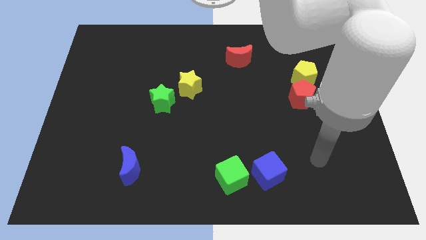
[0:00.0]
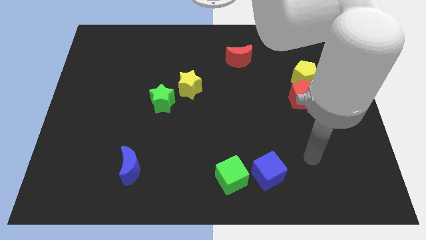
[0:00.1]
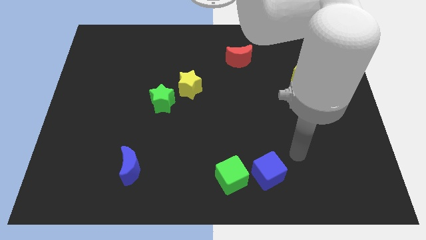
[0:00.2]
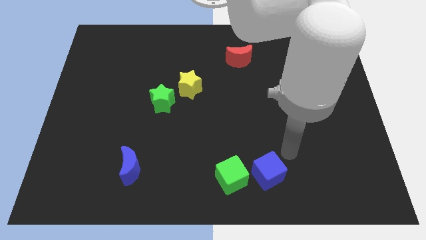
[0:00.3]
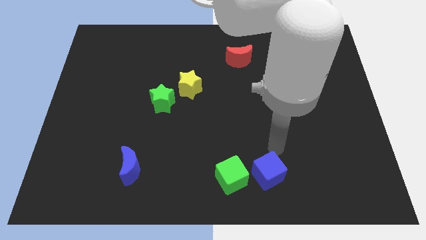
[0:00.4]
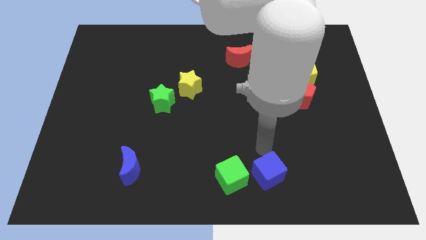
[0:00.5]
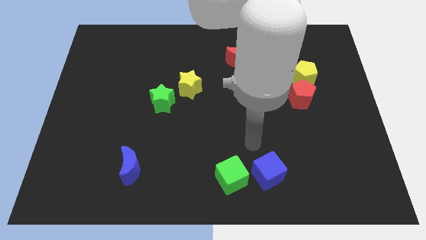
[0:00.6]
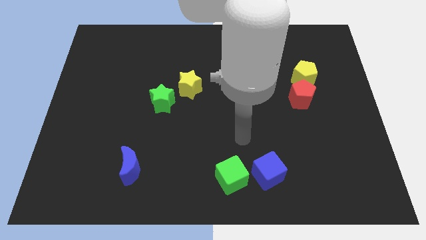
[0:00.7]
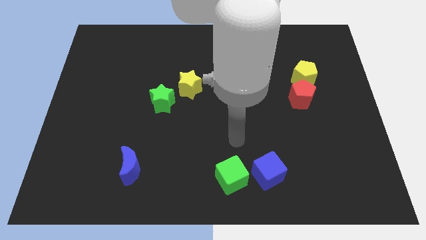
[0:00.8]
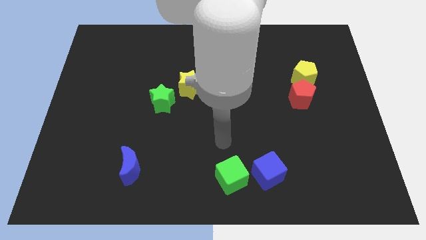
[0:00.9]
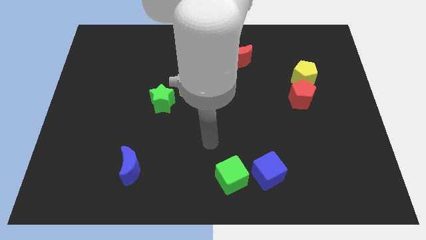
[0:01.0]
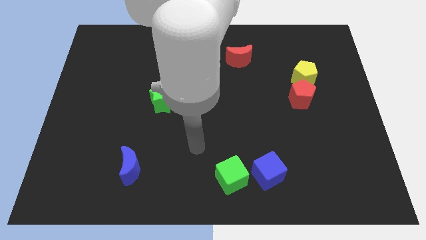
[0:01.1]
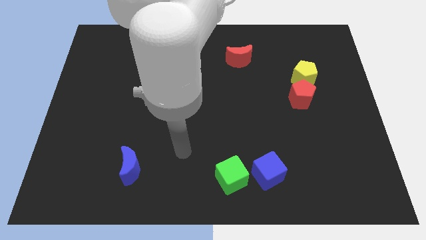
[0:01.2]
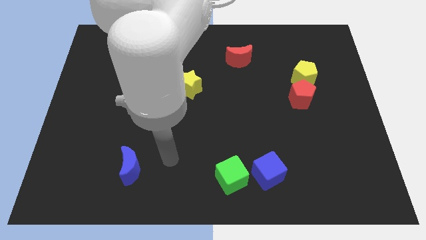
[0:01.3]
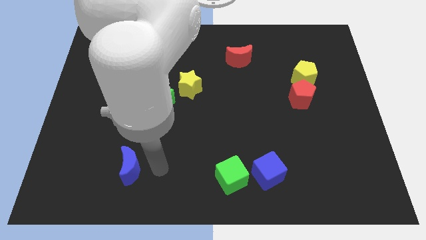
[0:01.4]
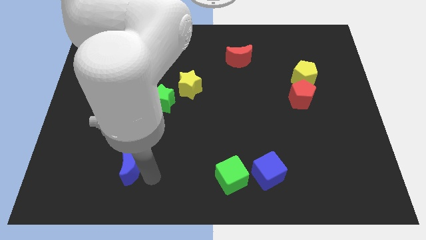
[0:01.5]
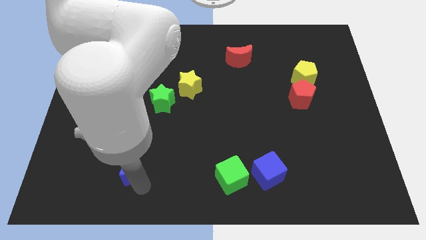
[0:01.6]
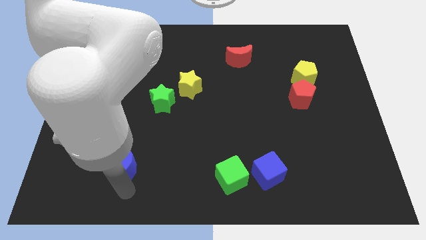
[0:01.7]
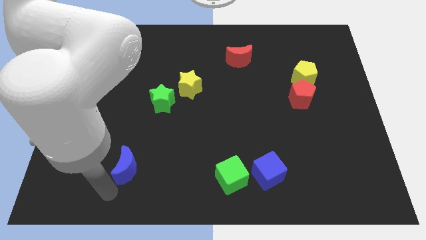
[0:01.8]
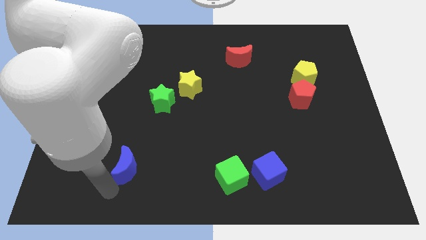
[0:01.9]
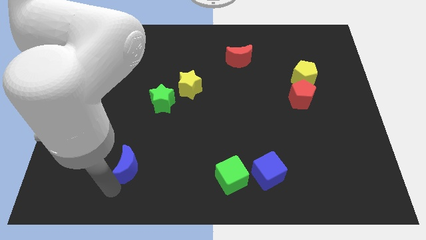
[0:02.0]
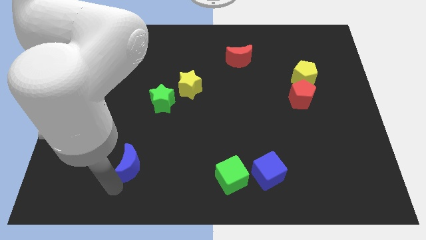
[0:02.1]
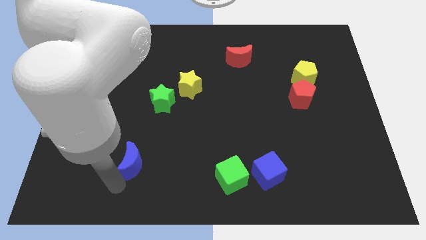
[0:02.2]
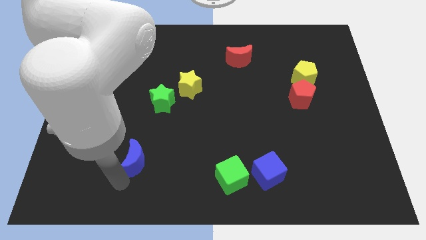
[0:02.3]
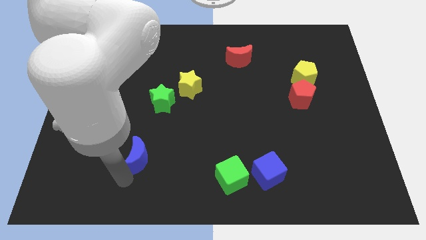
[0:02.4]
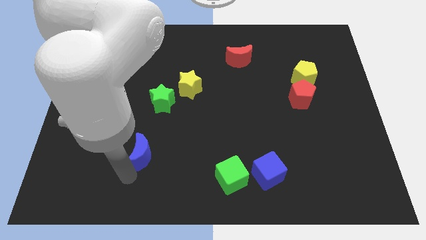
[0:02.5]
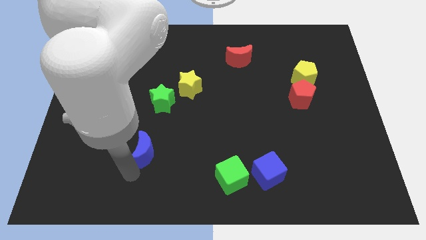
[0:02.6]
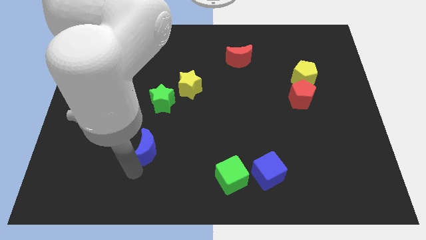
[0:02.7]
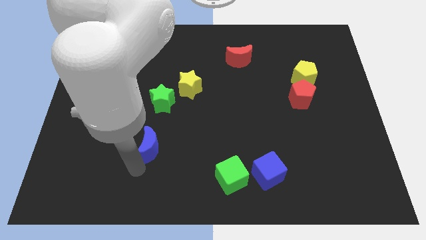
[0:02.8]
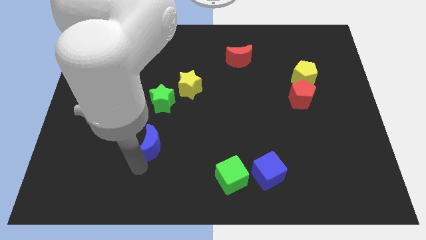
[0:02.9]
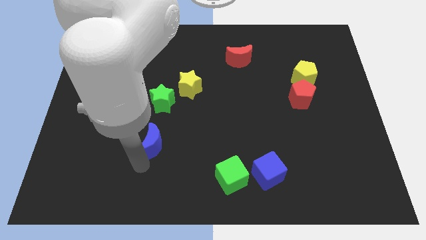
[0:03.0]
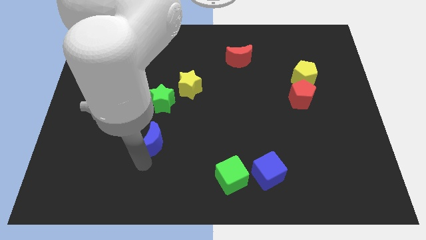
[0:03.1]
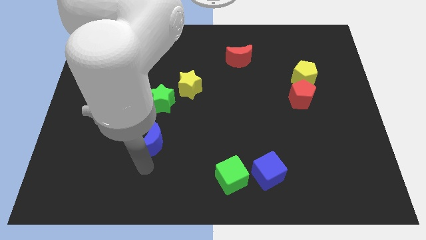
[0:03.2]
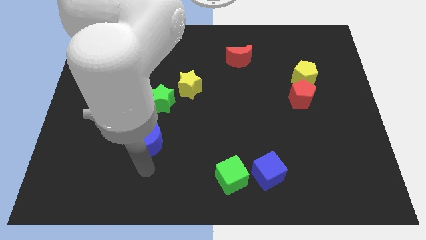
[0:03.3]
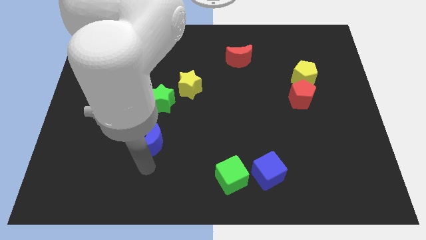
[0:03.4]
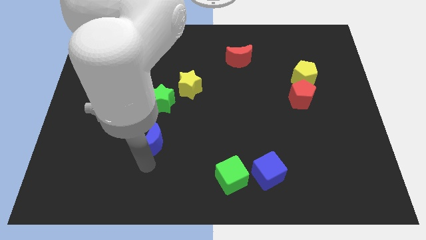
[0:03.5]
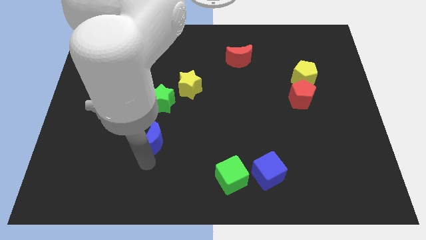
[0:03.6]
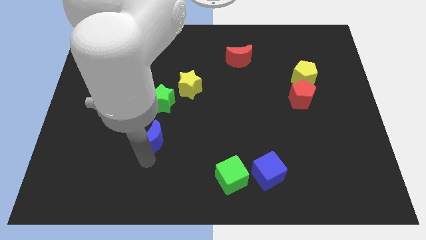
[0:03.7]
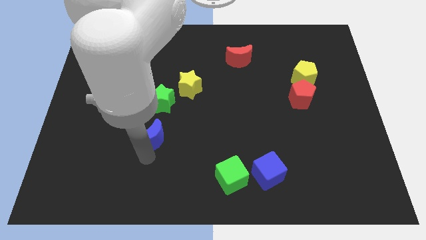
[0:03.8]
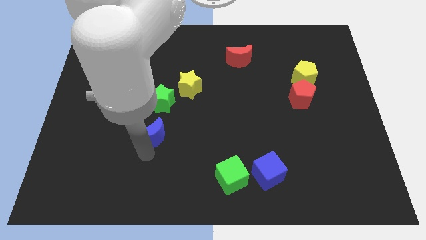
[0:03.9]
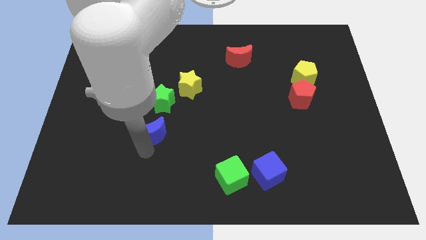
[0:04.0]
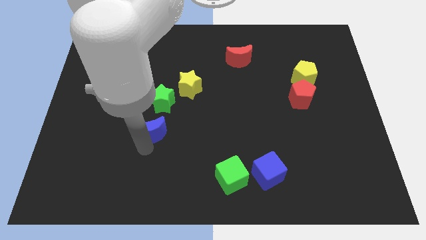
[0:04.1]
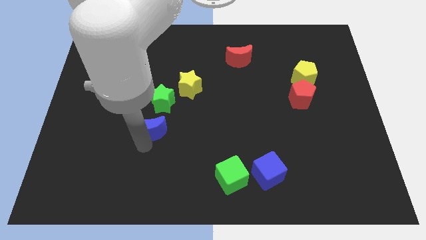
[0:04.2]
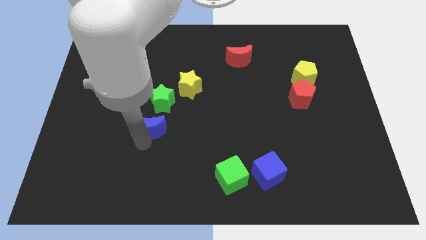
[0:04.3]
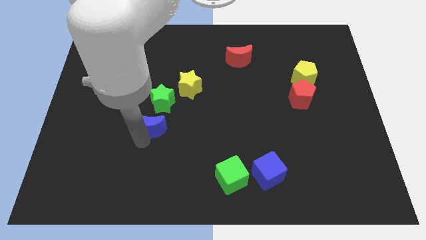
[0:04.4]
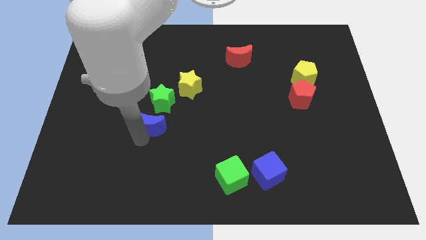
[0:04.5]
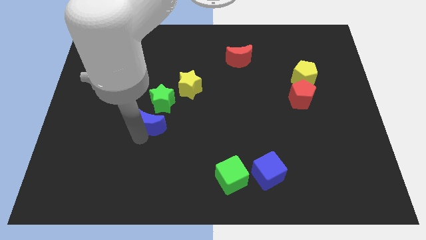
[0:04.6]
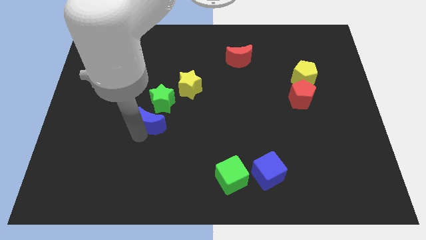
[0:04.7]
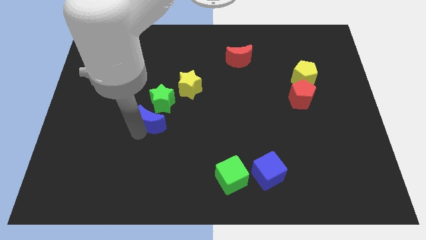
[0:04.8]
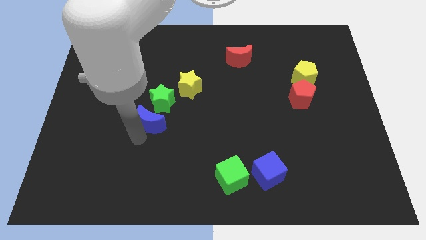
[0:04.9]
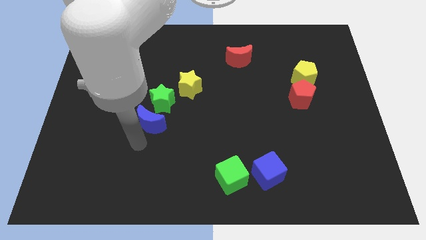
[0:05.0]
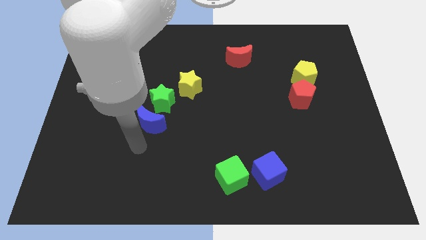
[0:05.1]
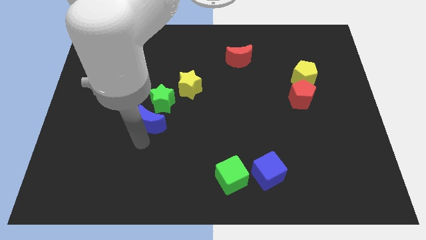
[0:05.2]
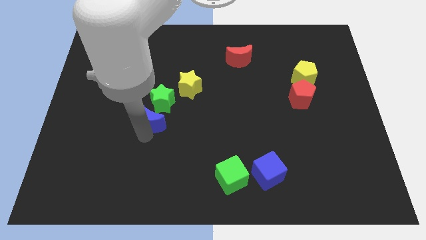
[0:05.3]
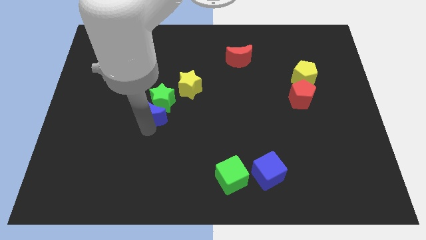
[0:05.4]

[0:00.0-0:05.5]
move the blue moon next to the green star

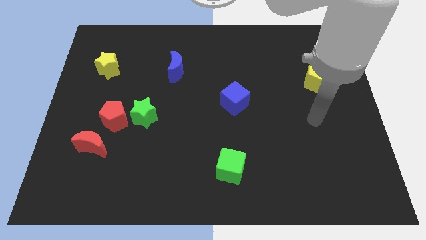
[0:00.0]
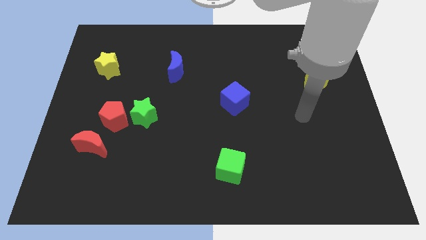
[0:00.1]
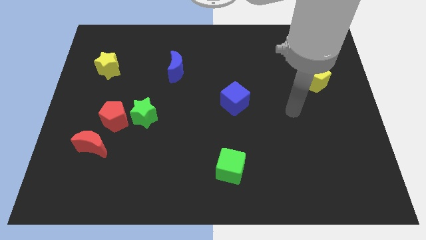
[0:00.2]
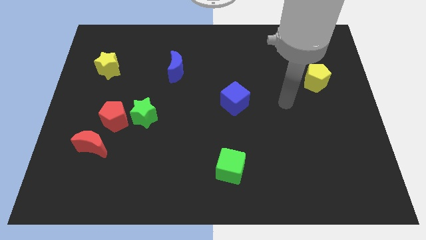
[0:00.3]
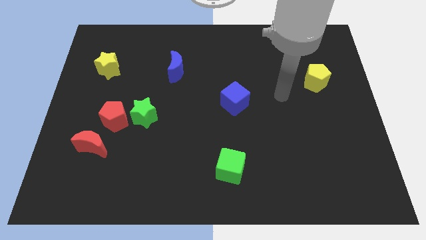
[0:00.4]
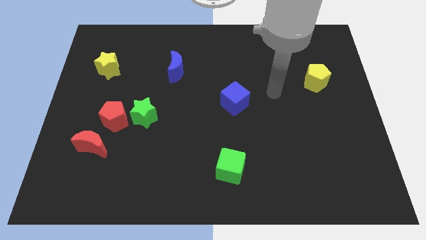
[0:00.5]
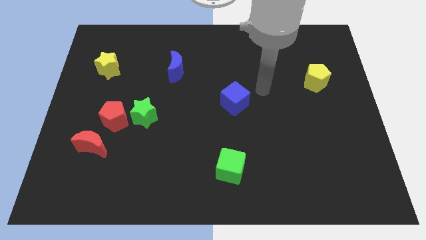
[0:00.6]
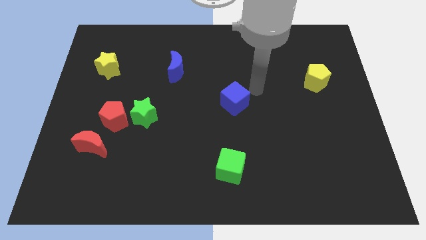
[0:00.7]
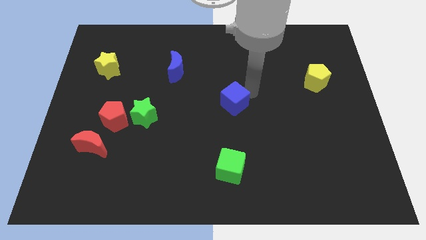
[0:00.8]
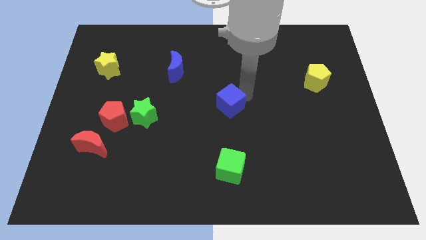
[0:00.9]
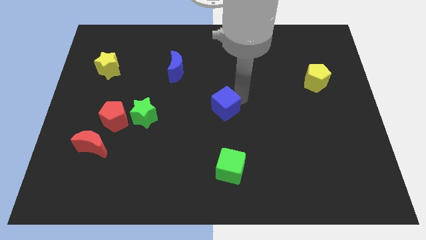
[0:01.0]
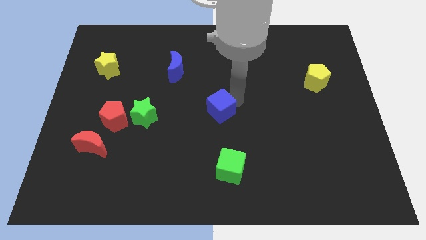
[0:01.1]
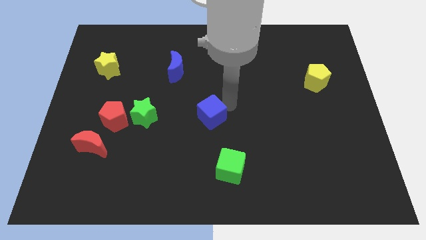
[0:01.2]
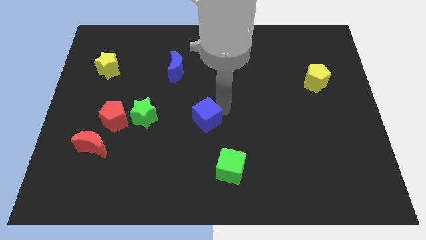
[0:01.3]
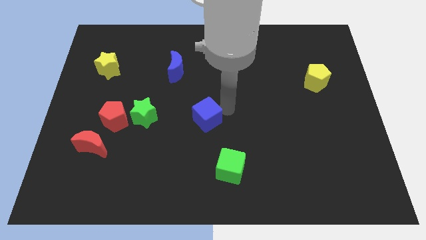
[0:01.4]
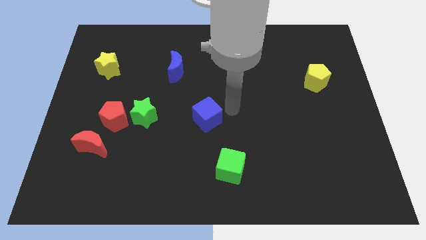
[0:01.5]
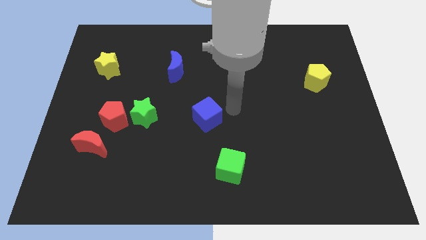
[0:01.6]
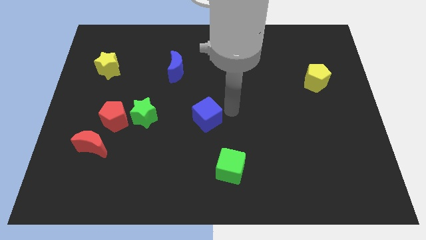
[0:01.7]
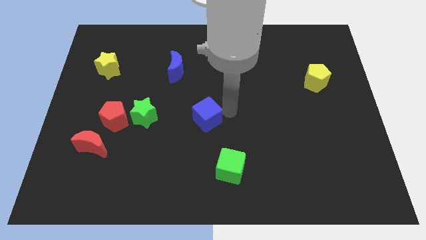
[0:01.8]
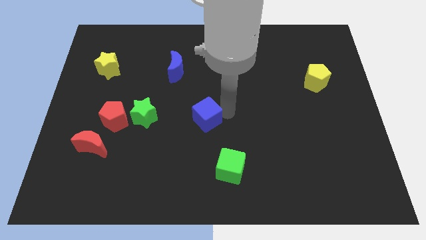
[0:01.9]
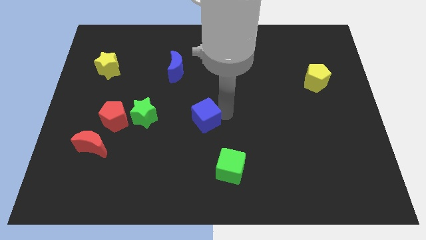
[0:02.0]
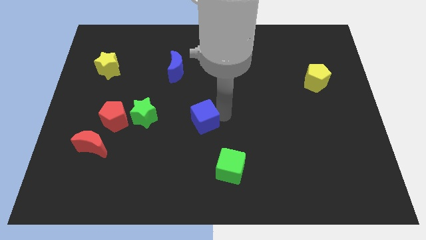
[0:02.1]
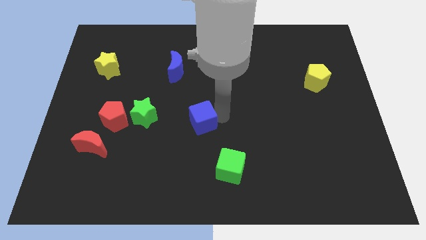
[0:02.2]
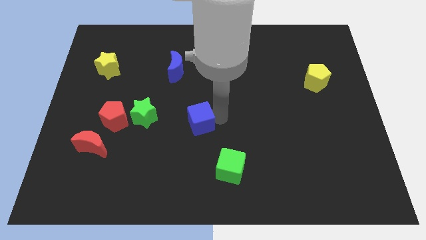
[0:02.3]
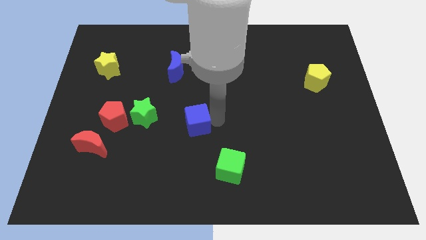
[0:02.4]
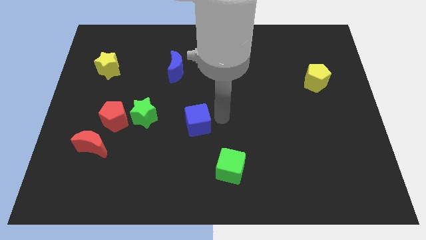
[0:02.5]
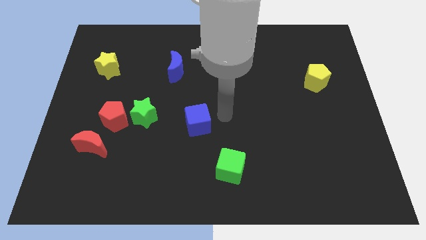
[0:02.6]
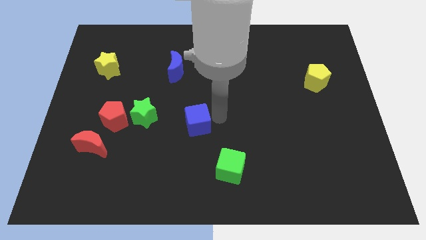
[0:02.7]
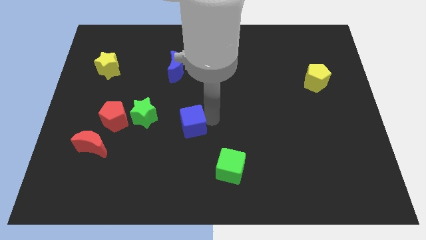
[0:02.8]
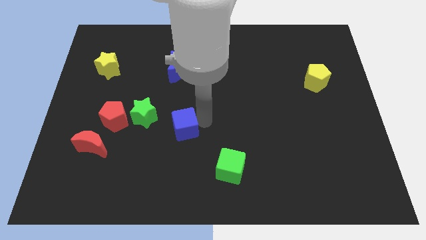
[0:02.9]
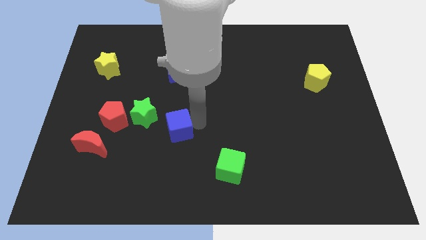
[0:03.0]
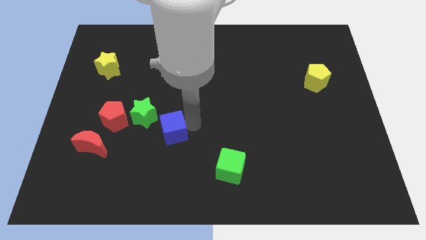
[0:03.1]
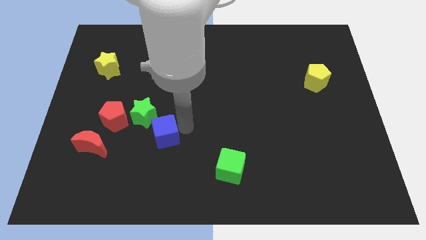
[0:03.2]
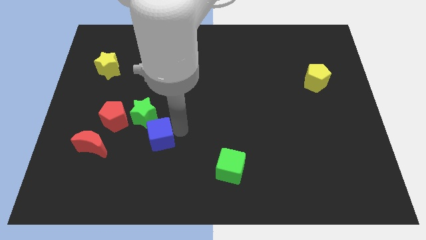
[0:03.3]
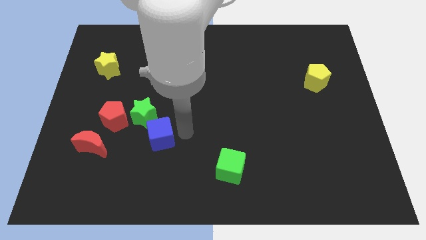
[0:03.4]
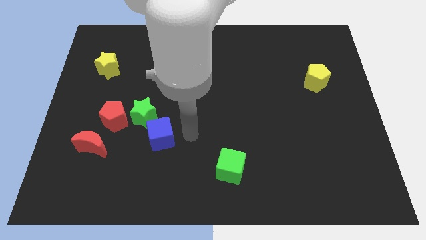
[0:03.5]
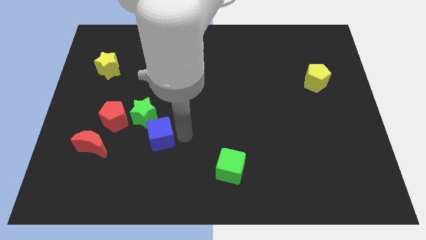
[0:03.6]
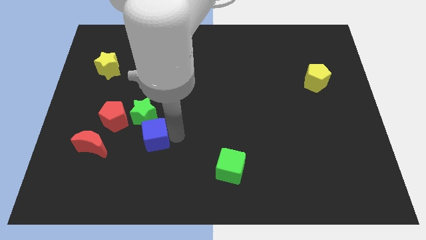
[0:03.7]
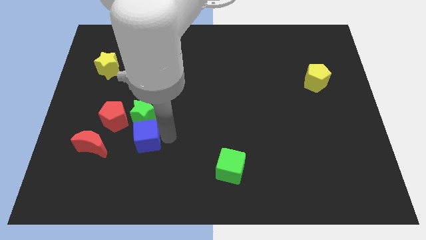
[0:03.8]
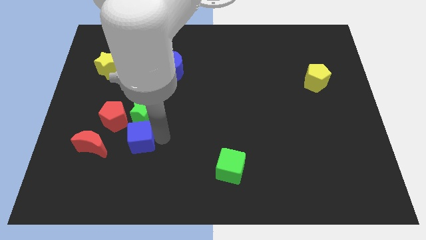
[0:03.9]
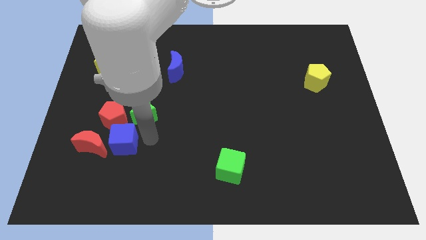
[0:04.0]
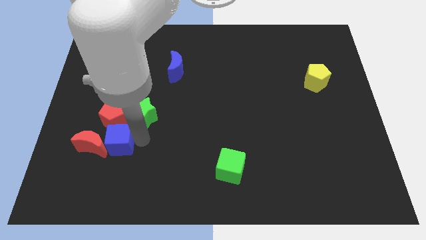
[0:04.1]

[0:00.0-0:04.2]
move the blue cube to the red moon
